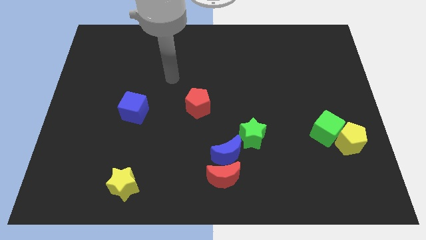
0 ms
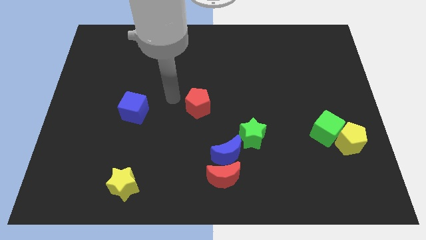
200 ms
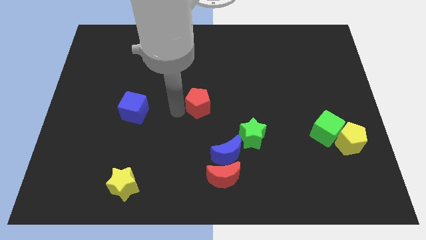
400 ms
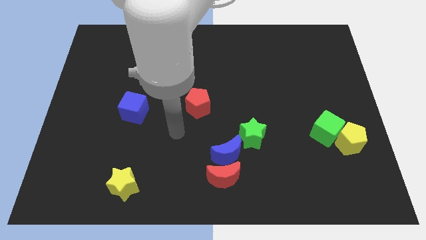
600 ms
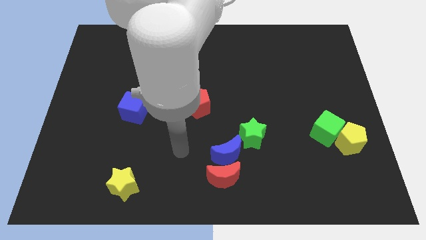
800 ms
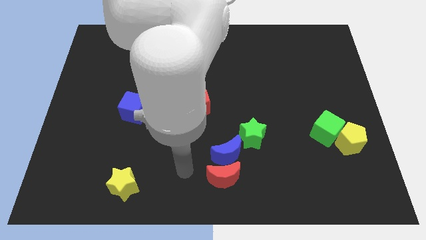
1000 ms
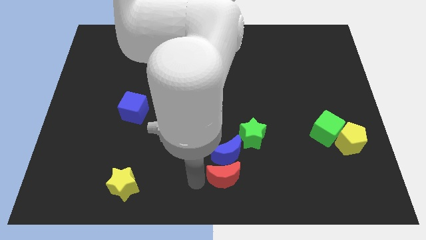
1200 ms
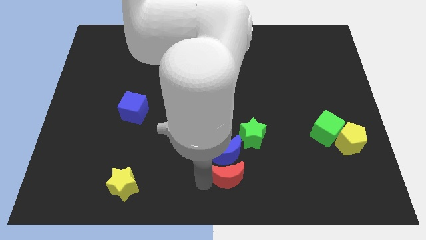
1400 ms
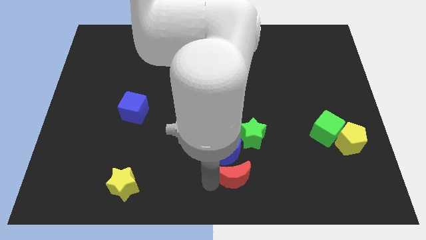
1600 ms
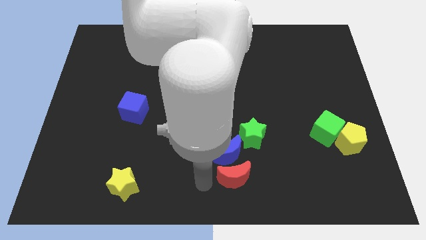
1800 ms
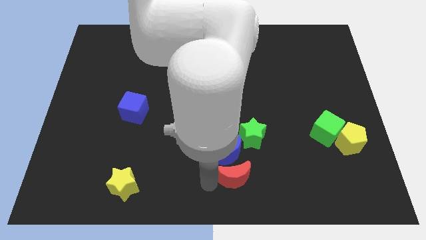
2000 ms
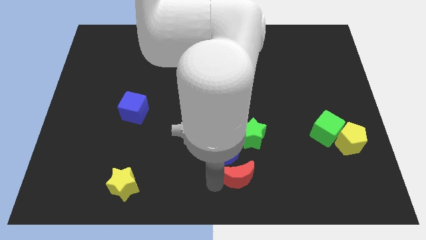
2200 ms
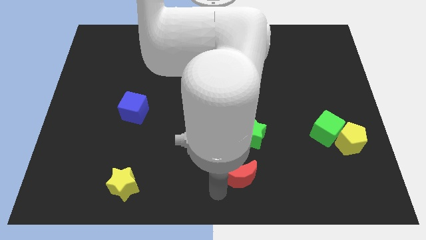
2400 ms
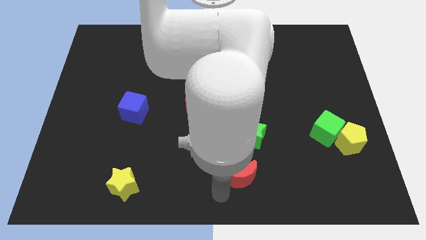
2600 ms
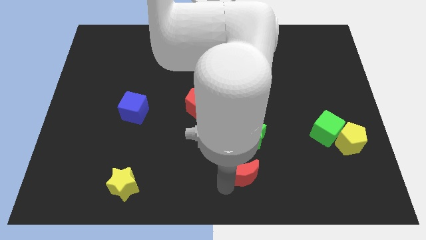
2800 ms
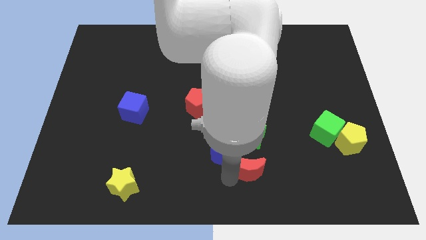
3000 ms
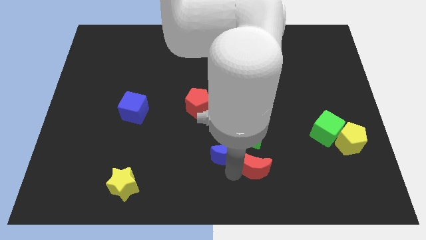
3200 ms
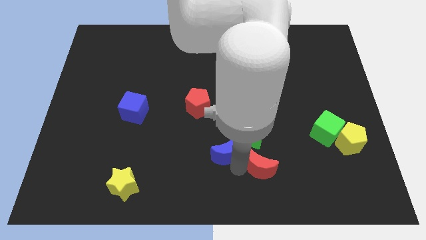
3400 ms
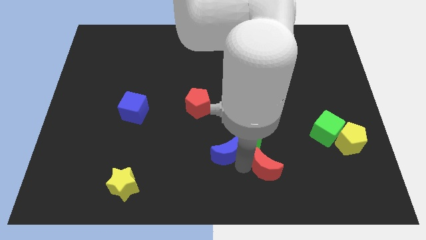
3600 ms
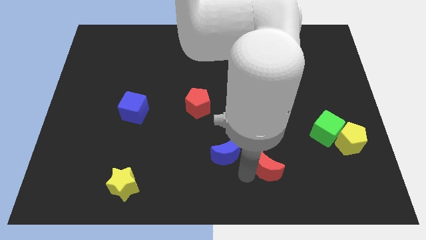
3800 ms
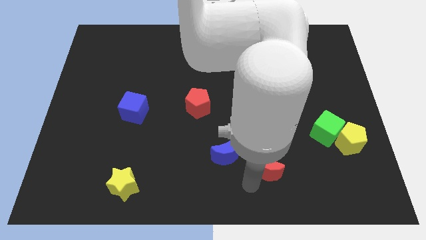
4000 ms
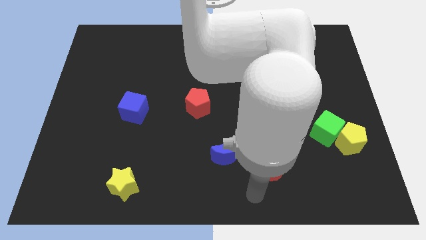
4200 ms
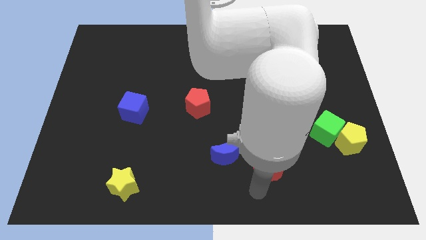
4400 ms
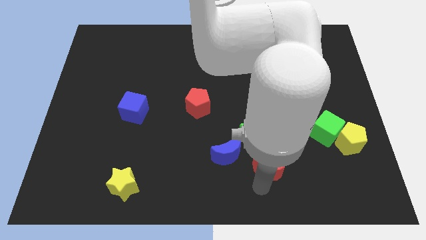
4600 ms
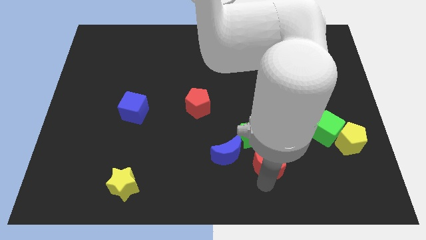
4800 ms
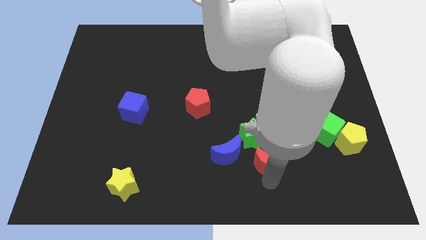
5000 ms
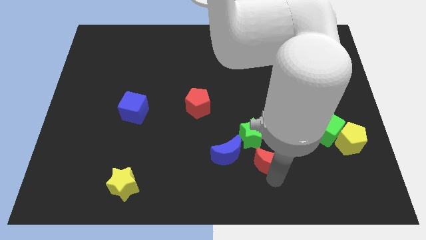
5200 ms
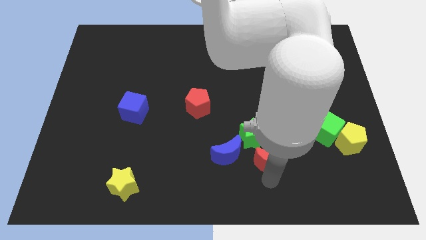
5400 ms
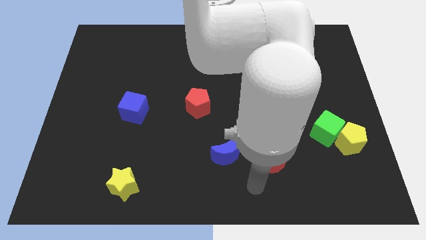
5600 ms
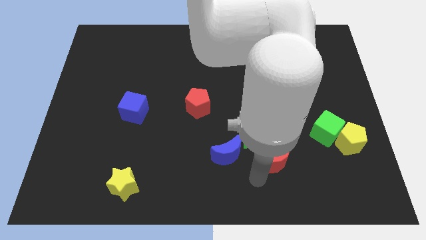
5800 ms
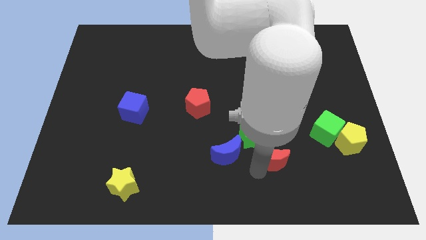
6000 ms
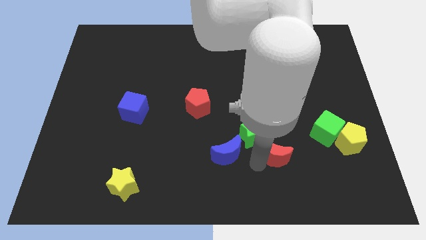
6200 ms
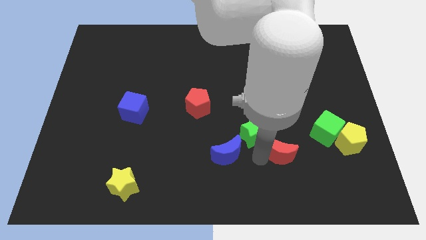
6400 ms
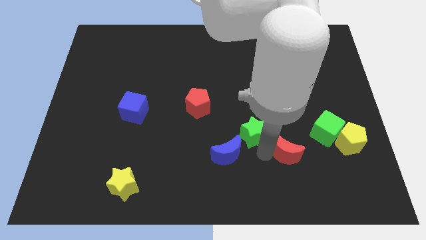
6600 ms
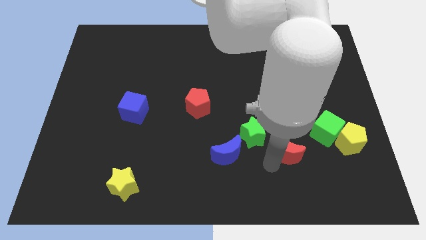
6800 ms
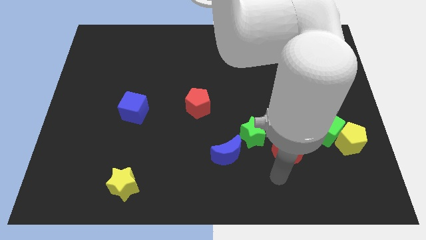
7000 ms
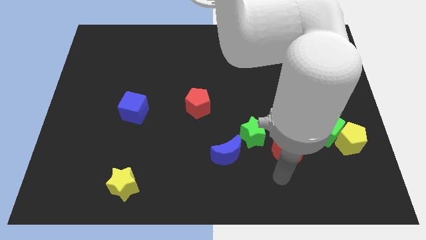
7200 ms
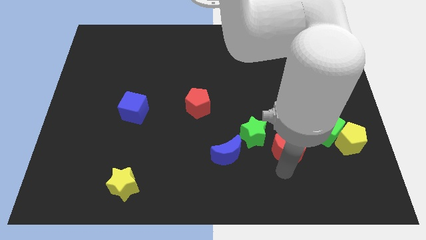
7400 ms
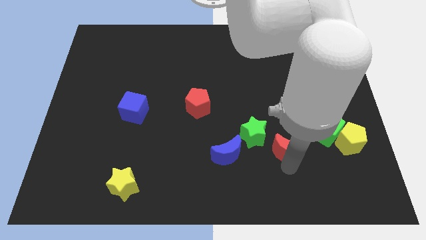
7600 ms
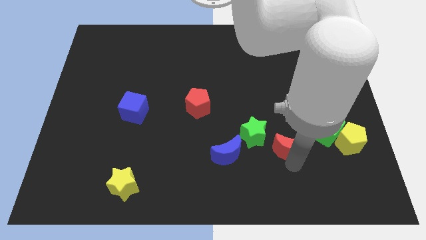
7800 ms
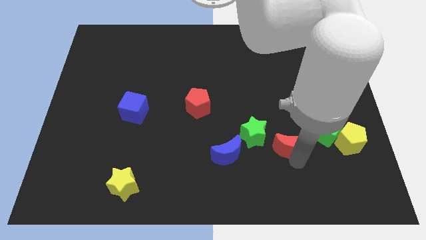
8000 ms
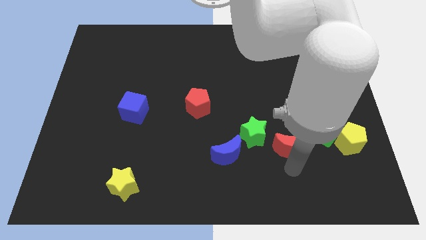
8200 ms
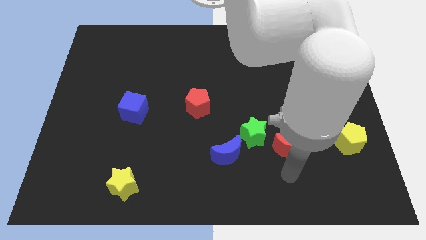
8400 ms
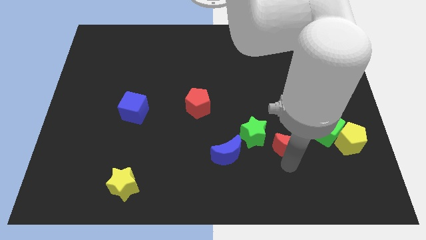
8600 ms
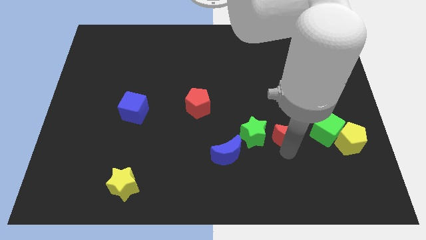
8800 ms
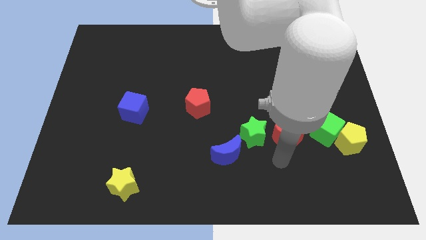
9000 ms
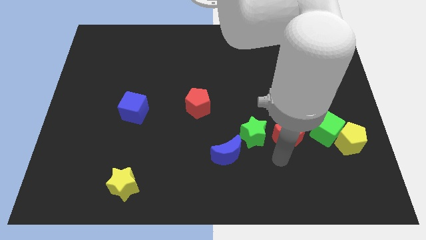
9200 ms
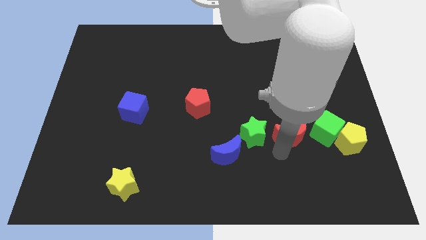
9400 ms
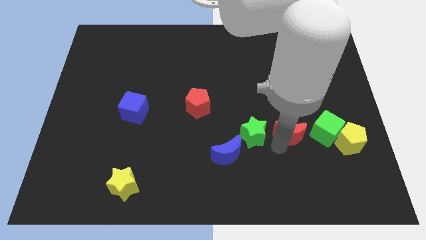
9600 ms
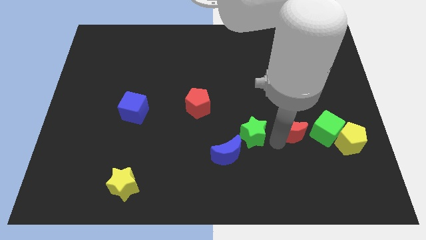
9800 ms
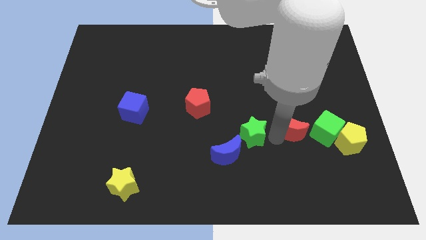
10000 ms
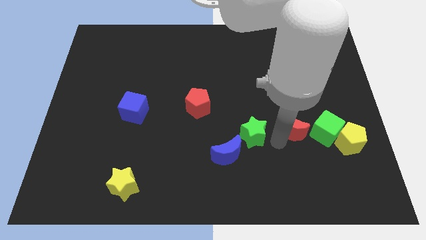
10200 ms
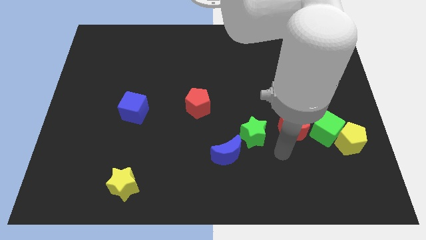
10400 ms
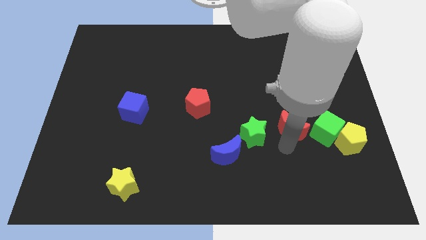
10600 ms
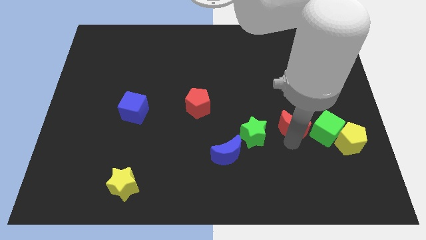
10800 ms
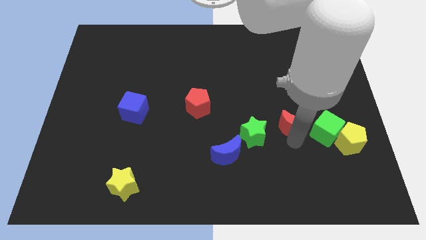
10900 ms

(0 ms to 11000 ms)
move the red moon up and then to the right

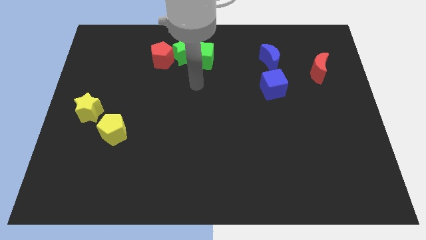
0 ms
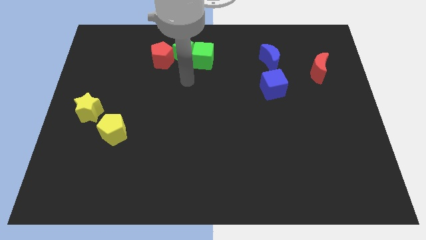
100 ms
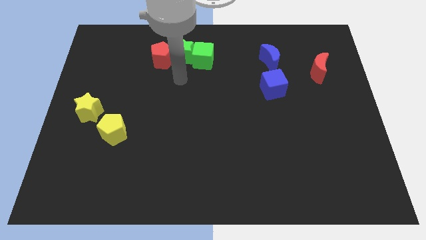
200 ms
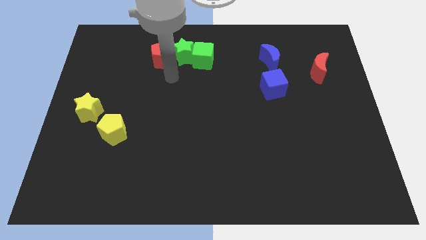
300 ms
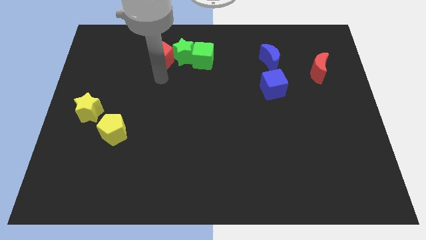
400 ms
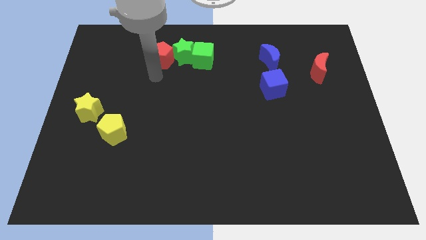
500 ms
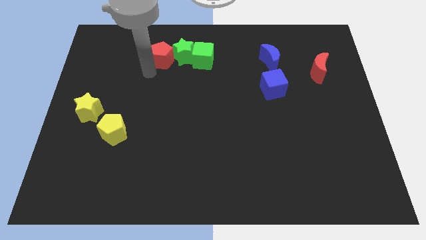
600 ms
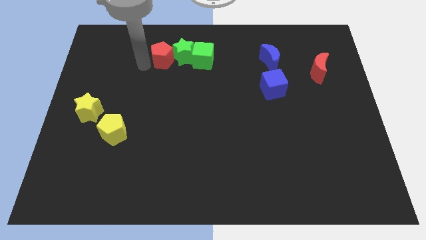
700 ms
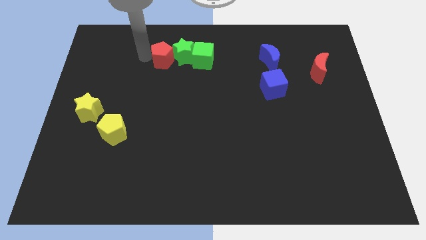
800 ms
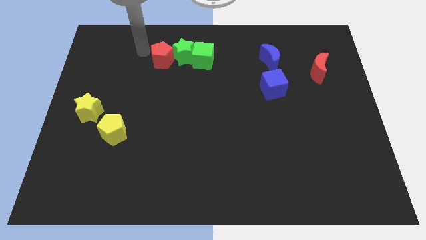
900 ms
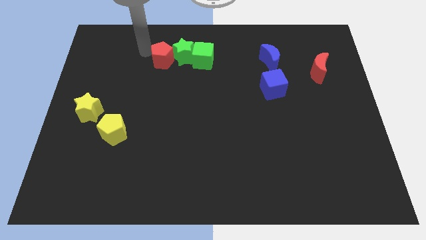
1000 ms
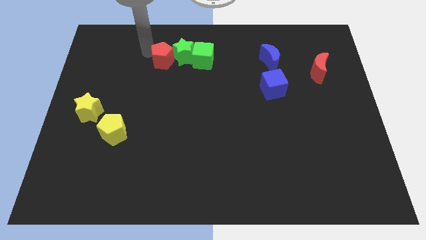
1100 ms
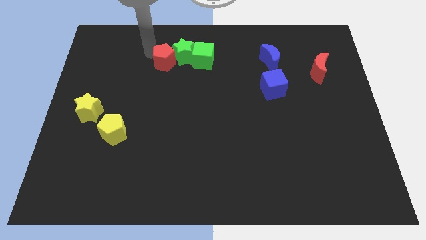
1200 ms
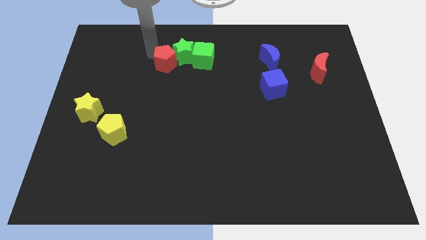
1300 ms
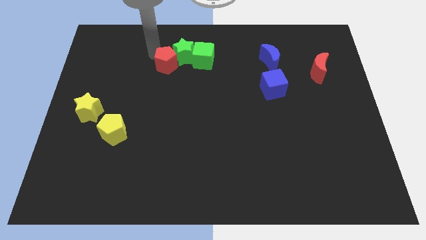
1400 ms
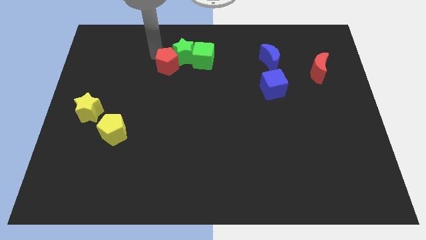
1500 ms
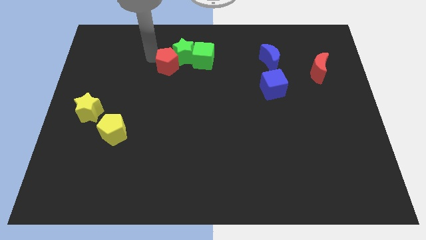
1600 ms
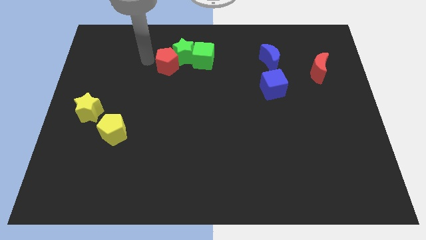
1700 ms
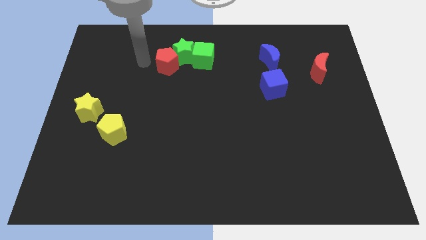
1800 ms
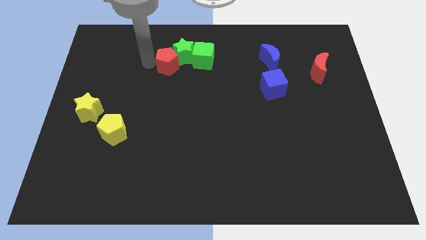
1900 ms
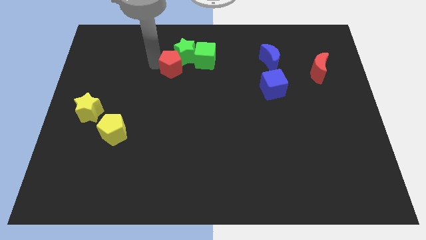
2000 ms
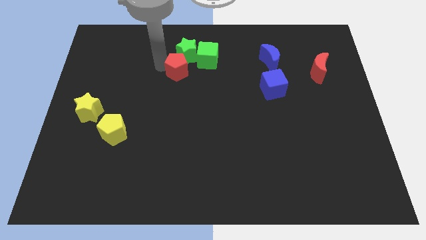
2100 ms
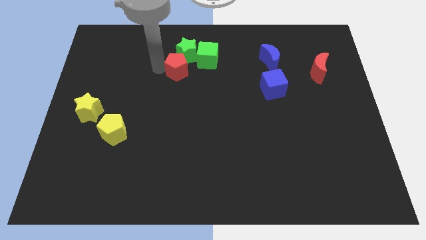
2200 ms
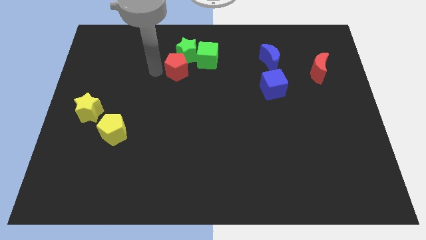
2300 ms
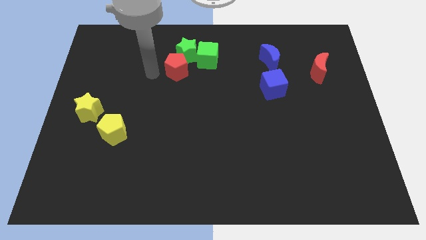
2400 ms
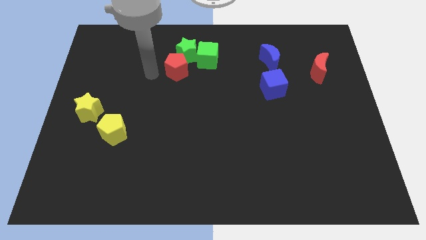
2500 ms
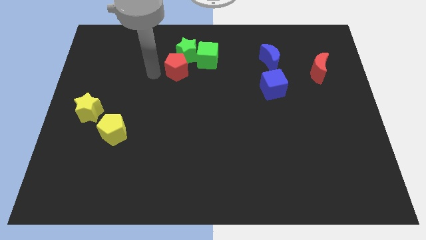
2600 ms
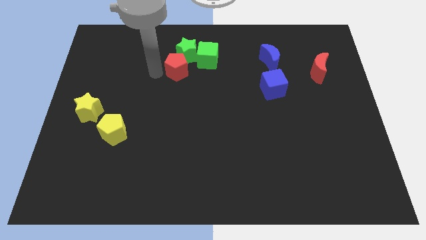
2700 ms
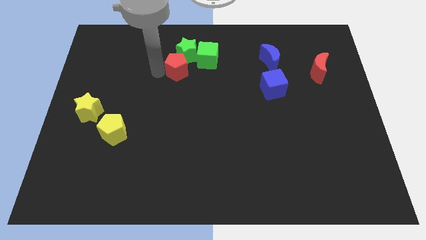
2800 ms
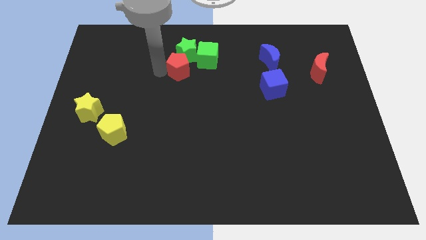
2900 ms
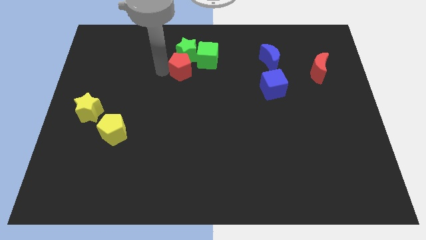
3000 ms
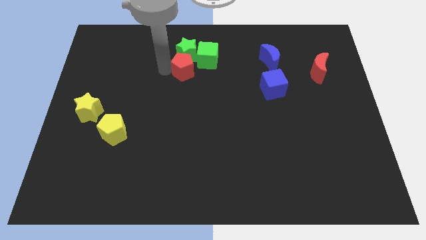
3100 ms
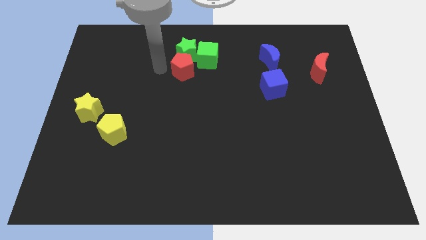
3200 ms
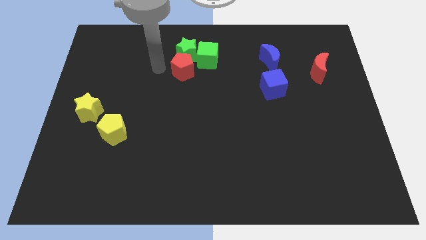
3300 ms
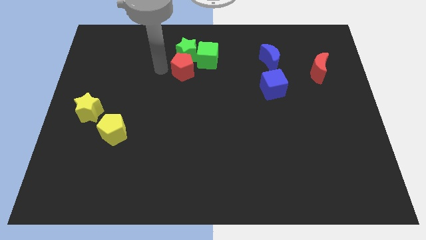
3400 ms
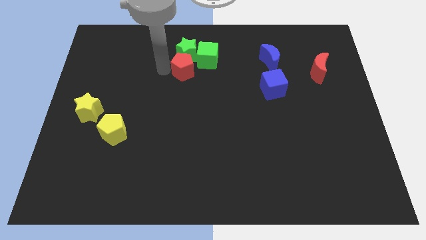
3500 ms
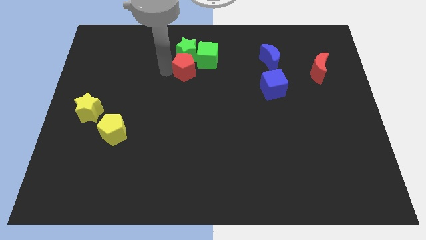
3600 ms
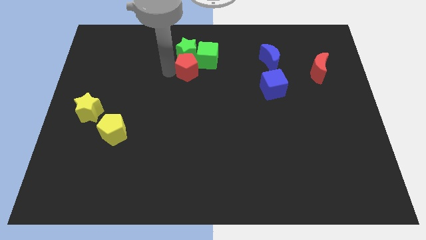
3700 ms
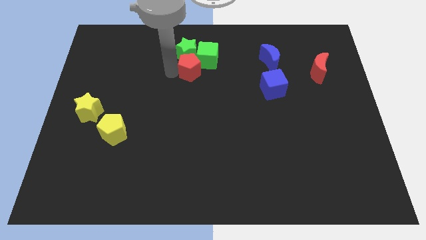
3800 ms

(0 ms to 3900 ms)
slide the red pentagon right a bit
